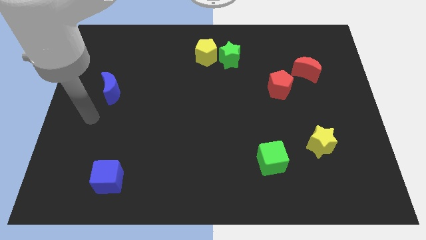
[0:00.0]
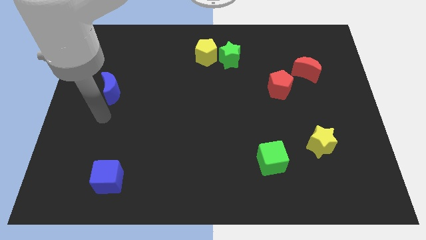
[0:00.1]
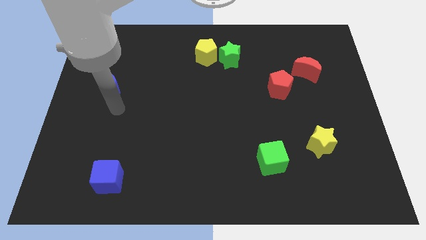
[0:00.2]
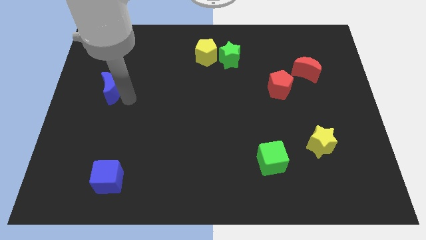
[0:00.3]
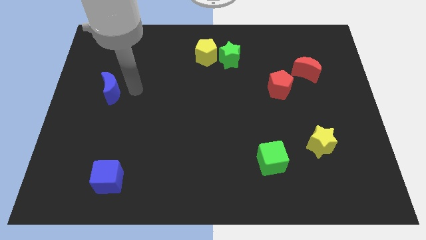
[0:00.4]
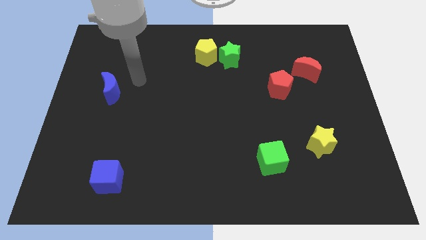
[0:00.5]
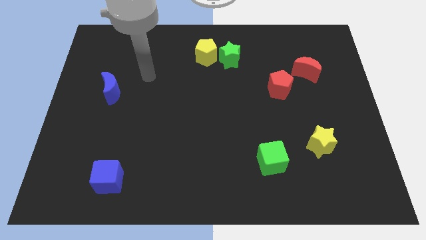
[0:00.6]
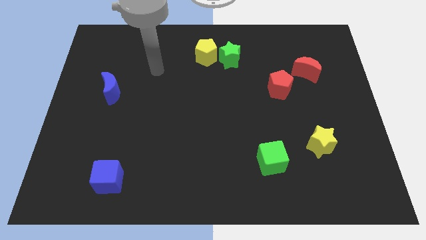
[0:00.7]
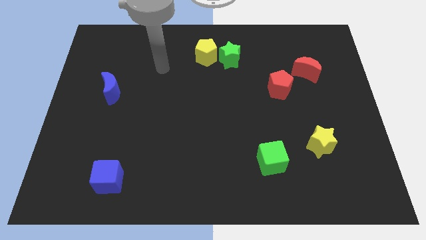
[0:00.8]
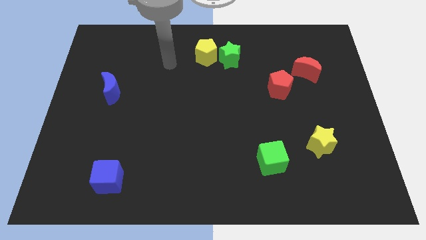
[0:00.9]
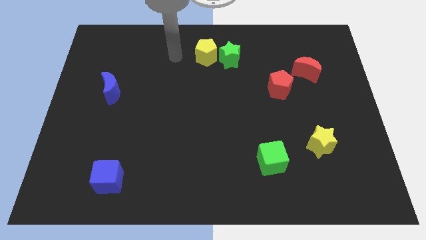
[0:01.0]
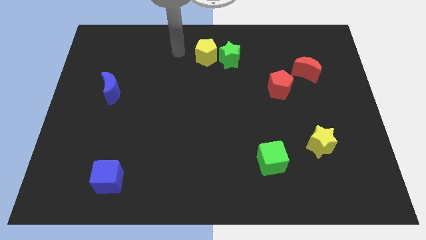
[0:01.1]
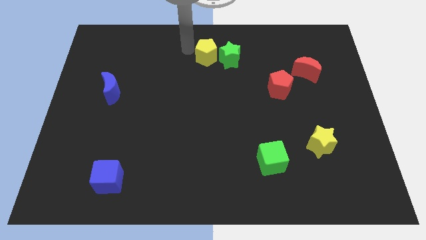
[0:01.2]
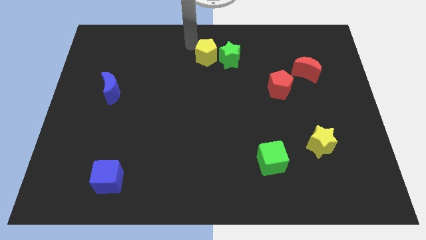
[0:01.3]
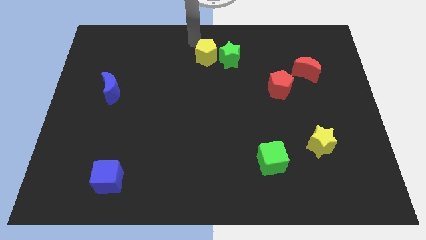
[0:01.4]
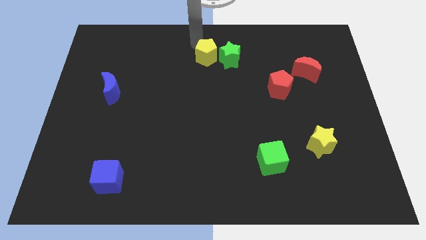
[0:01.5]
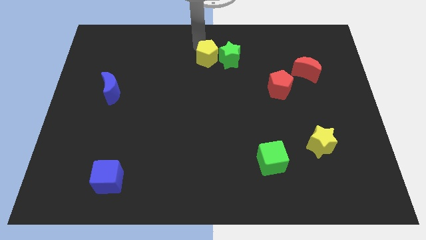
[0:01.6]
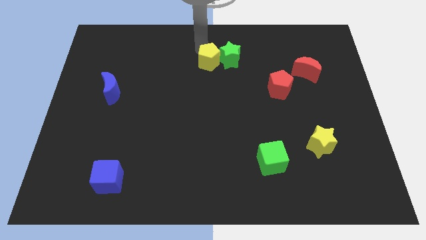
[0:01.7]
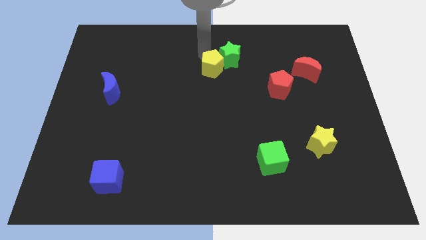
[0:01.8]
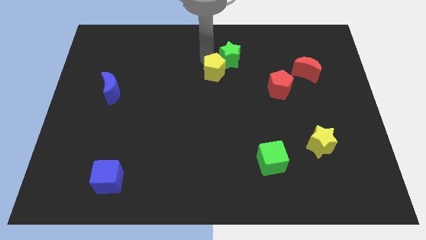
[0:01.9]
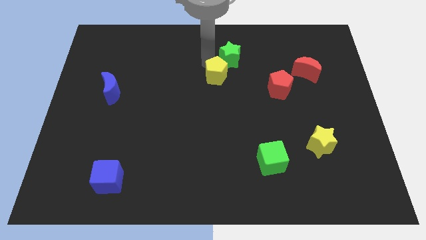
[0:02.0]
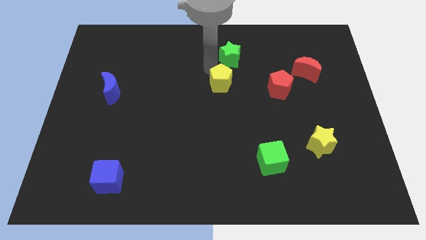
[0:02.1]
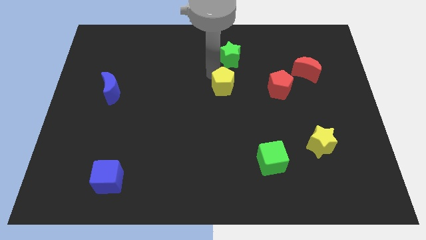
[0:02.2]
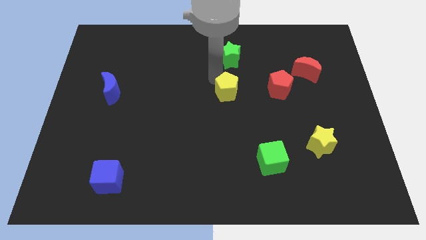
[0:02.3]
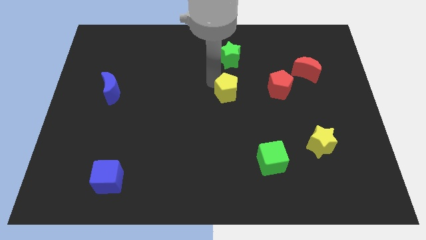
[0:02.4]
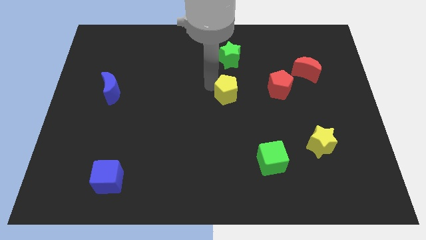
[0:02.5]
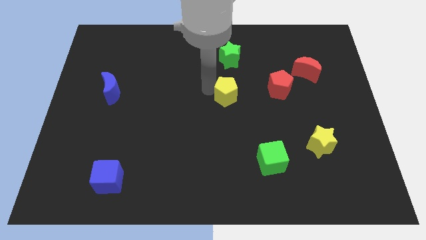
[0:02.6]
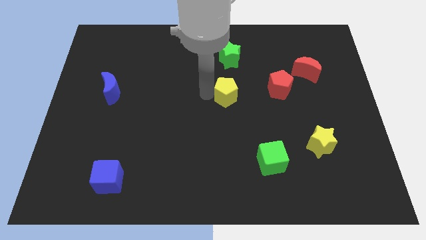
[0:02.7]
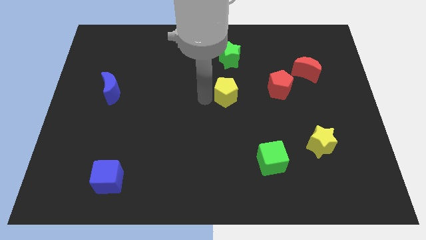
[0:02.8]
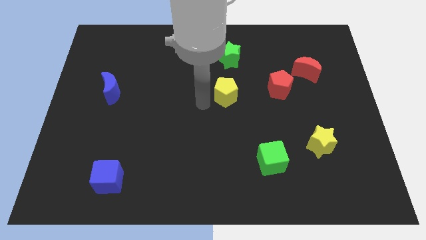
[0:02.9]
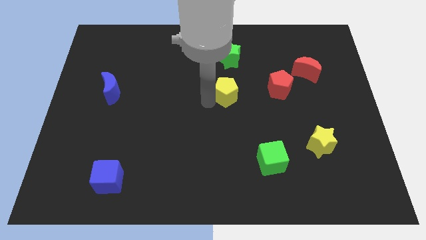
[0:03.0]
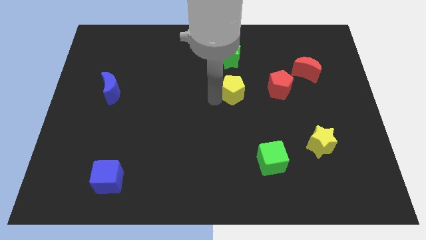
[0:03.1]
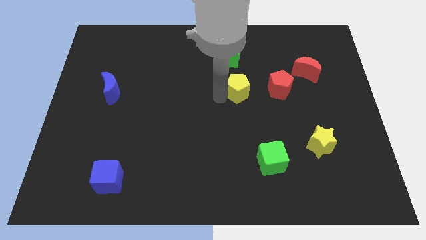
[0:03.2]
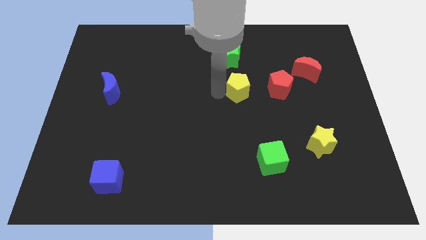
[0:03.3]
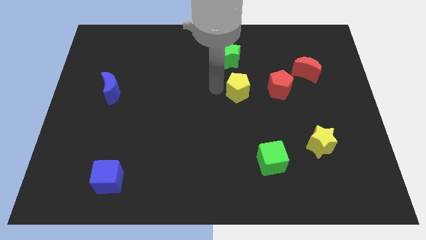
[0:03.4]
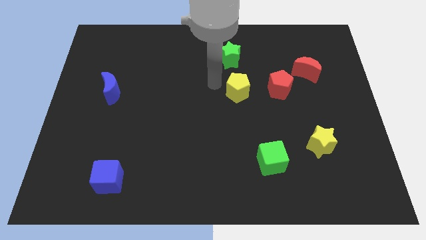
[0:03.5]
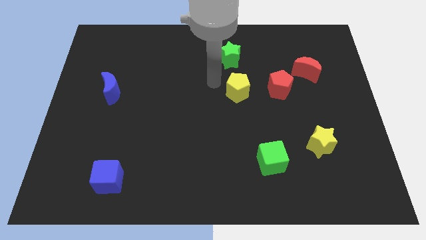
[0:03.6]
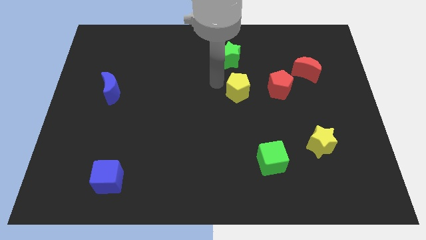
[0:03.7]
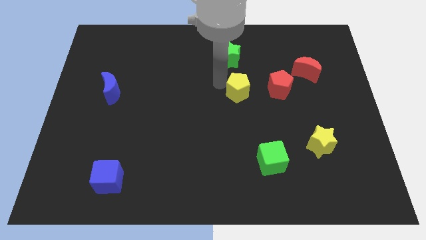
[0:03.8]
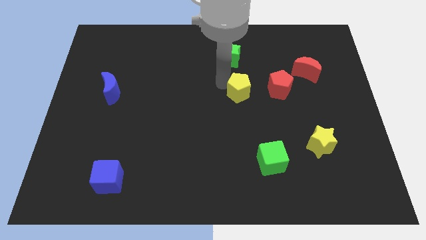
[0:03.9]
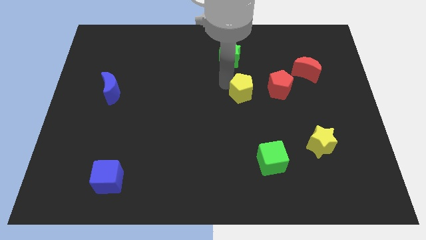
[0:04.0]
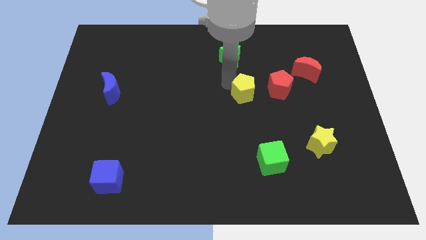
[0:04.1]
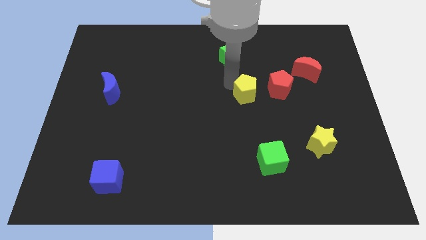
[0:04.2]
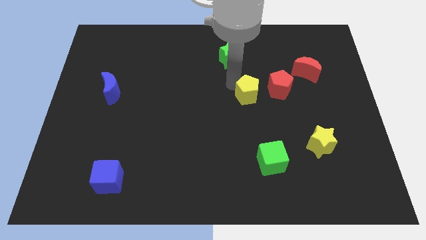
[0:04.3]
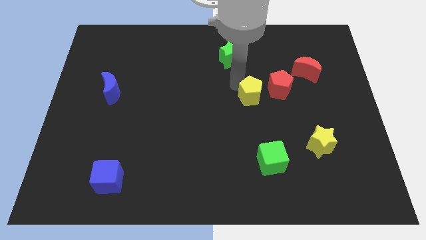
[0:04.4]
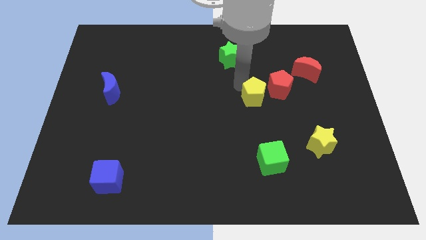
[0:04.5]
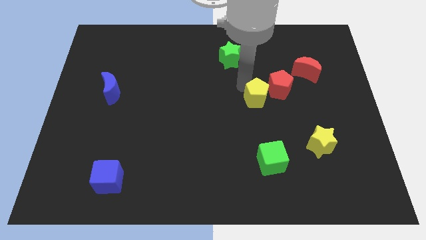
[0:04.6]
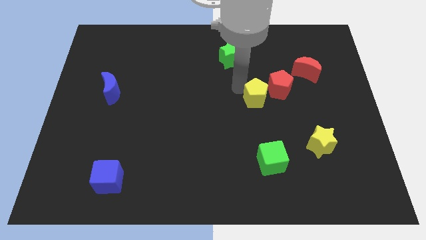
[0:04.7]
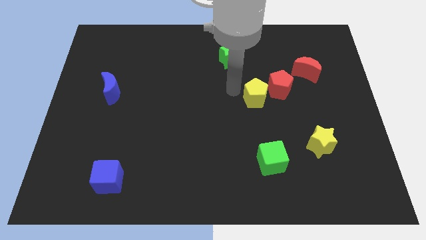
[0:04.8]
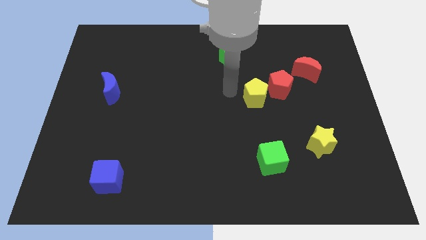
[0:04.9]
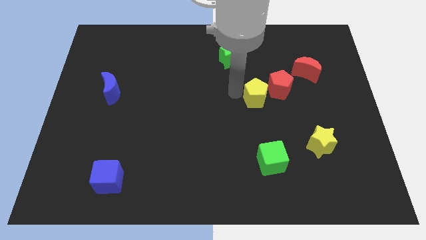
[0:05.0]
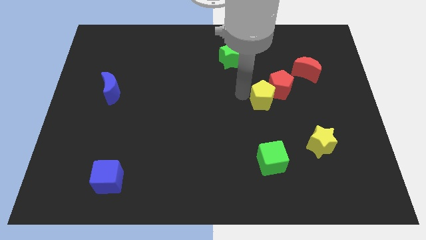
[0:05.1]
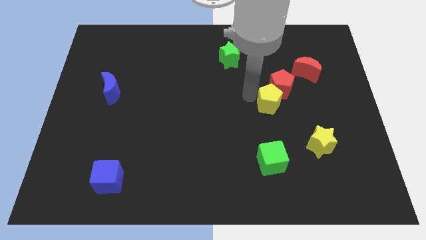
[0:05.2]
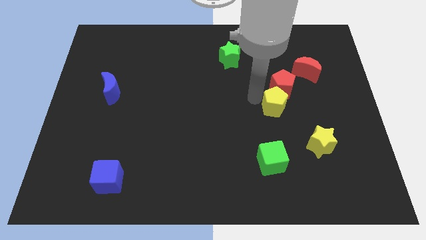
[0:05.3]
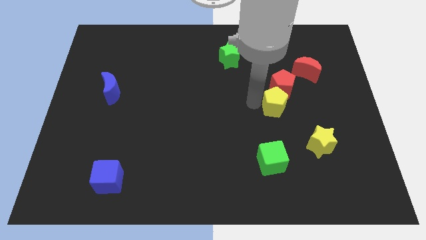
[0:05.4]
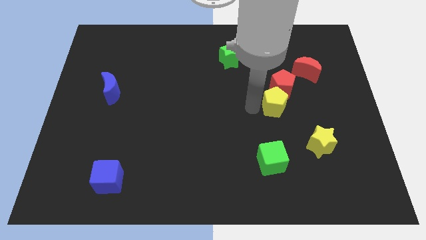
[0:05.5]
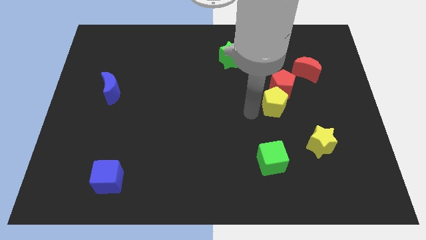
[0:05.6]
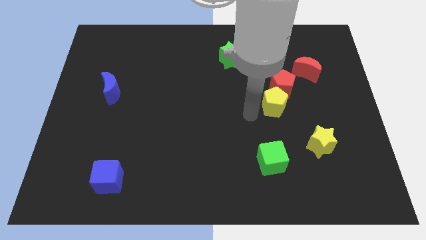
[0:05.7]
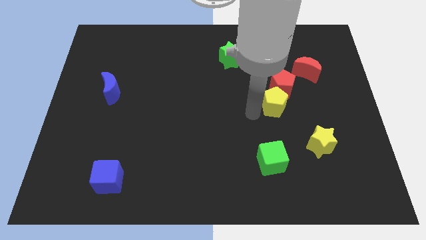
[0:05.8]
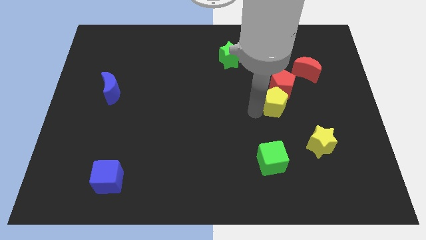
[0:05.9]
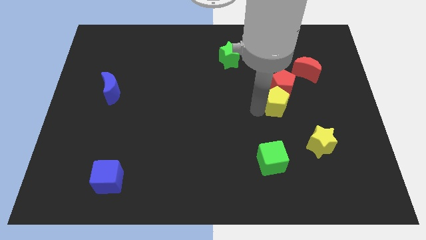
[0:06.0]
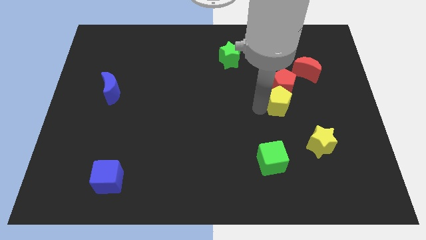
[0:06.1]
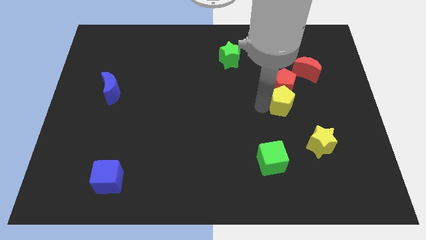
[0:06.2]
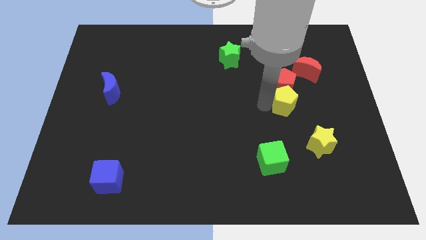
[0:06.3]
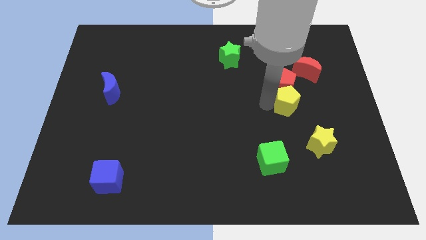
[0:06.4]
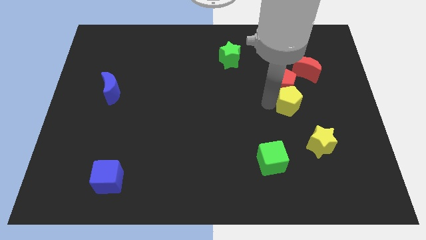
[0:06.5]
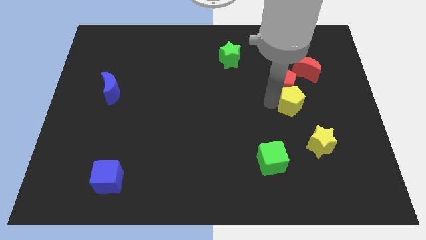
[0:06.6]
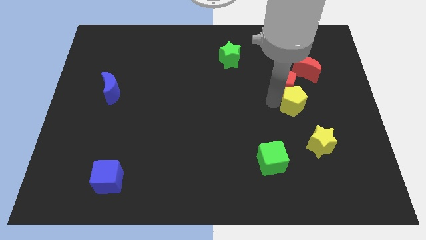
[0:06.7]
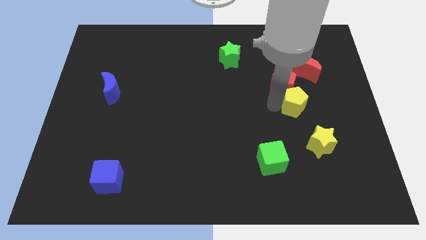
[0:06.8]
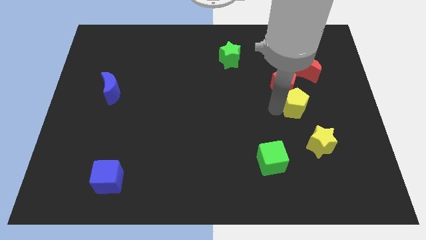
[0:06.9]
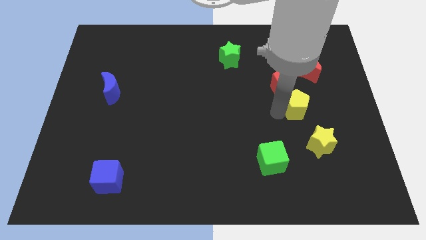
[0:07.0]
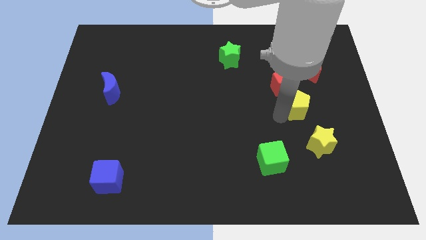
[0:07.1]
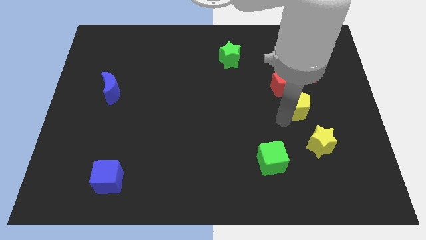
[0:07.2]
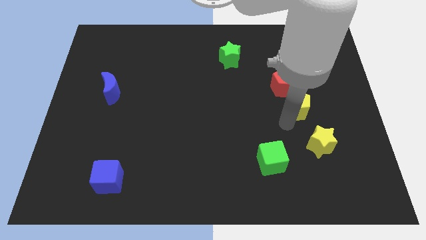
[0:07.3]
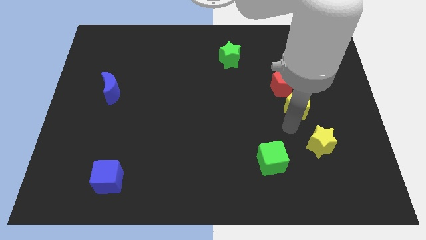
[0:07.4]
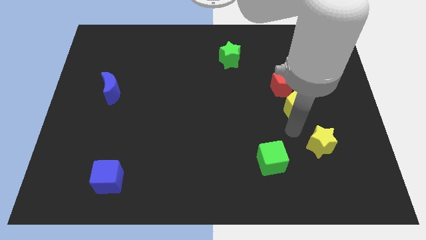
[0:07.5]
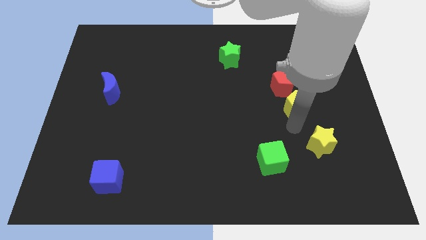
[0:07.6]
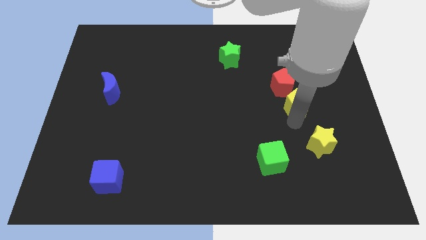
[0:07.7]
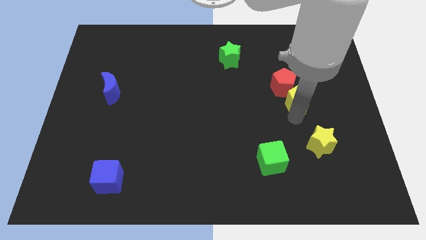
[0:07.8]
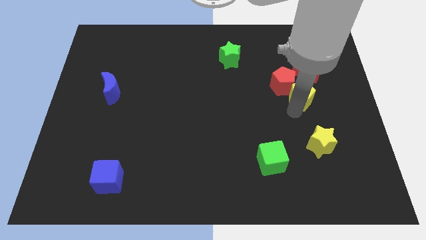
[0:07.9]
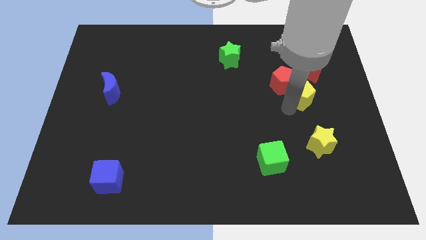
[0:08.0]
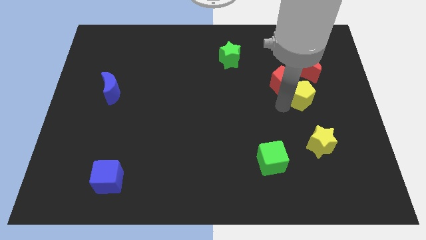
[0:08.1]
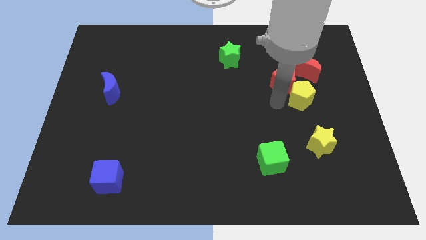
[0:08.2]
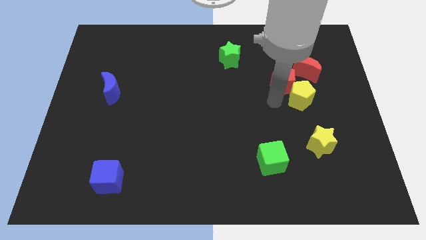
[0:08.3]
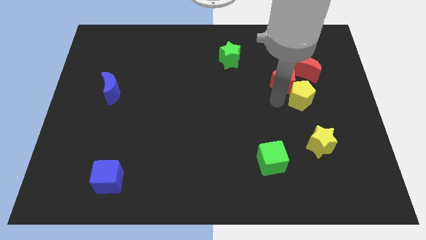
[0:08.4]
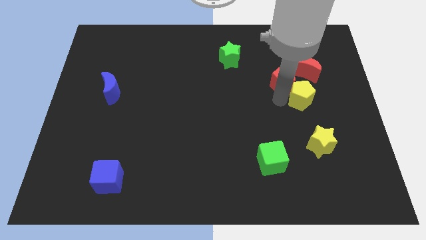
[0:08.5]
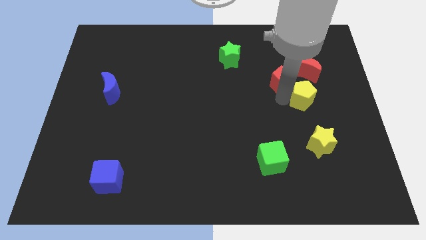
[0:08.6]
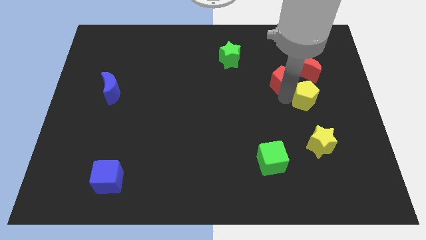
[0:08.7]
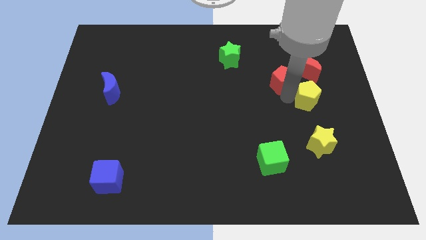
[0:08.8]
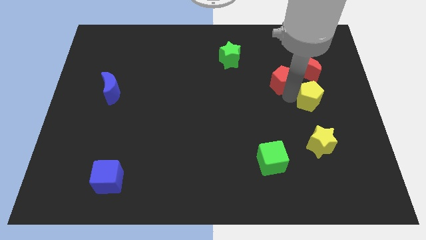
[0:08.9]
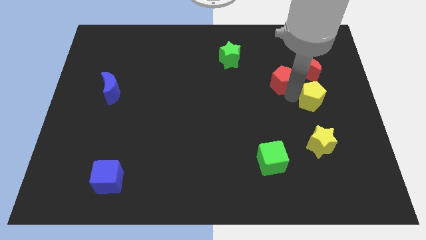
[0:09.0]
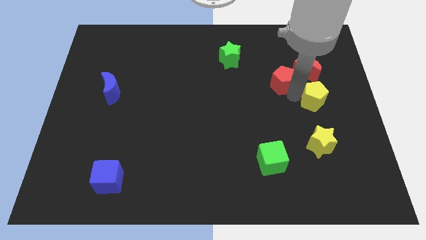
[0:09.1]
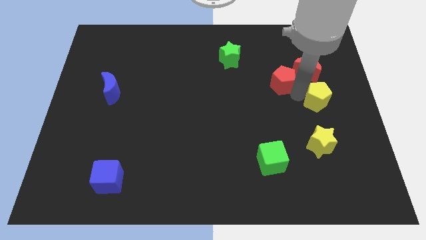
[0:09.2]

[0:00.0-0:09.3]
put the yellow pentagon to the right side of the board
